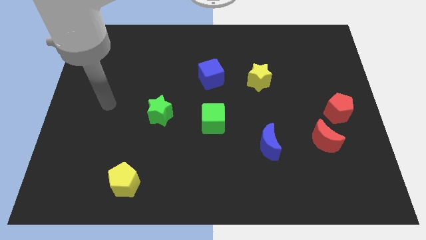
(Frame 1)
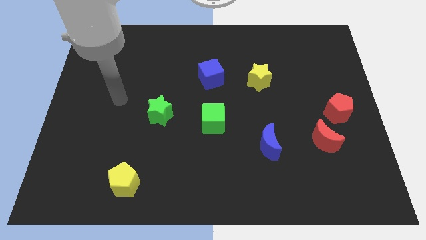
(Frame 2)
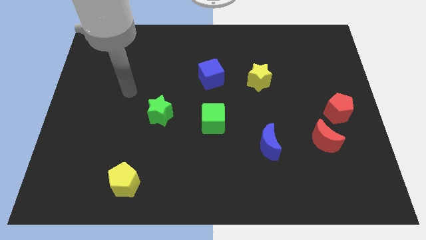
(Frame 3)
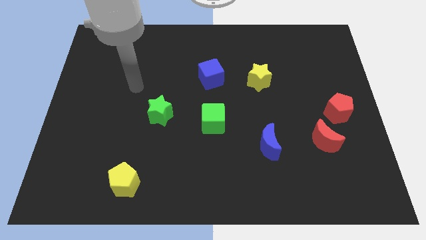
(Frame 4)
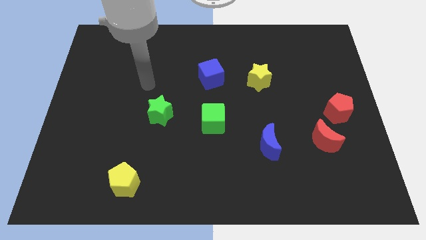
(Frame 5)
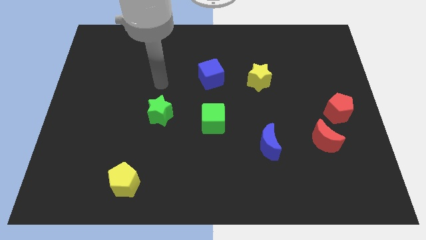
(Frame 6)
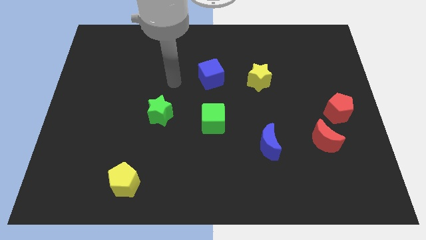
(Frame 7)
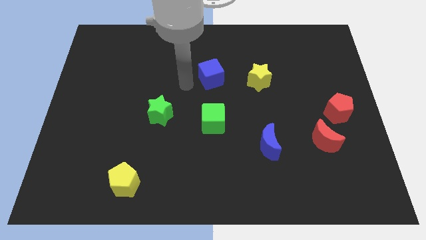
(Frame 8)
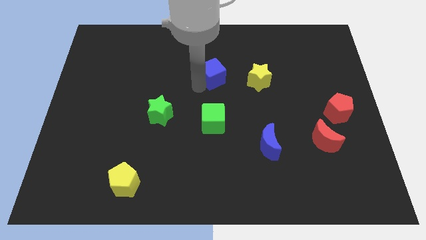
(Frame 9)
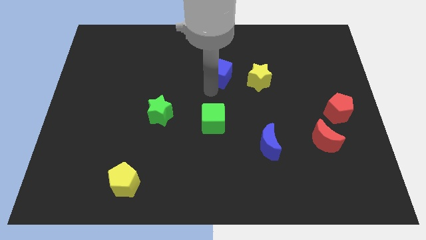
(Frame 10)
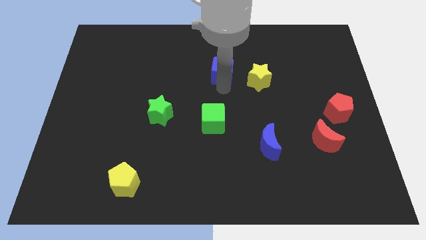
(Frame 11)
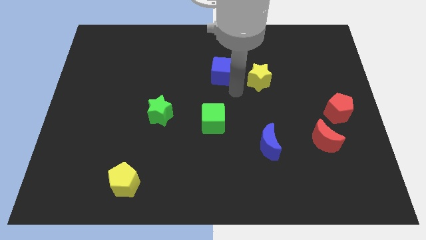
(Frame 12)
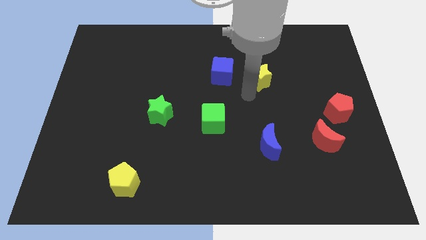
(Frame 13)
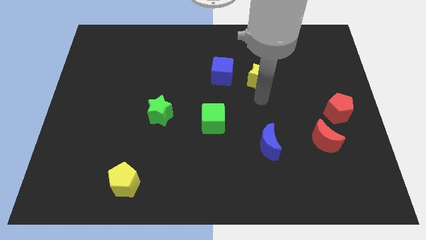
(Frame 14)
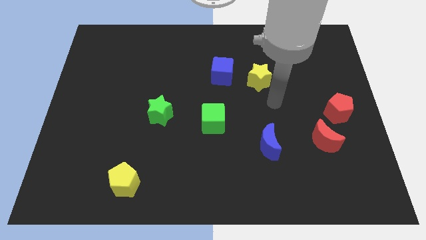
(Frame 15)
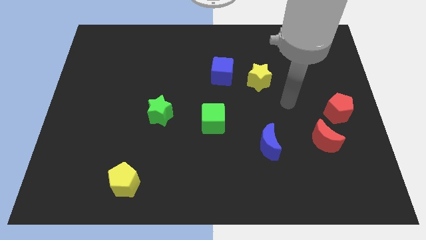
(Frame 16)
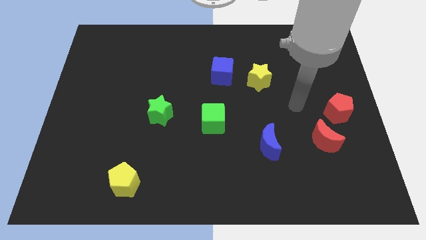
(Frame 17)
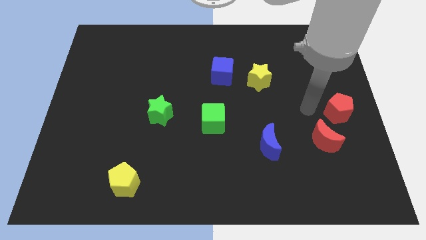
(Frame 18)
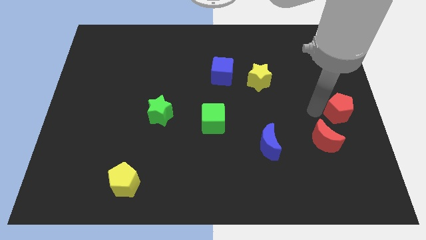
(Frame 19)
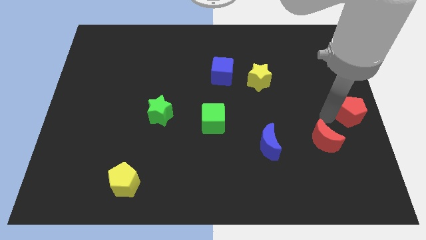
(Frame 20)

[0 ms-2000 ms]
pull the red moon apart from the red pentagon

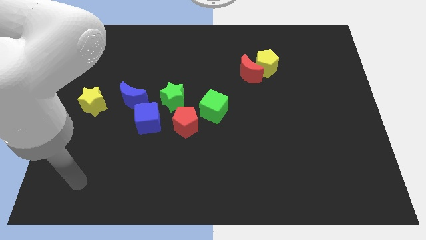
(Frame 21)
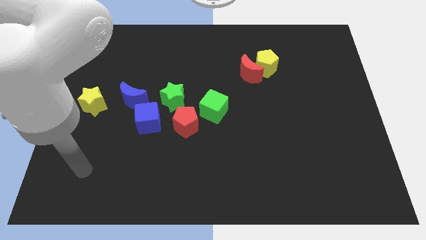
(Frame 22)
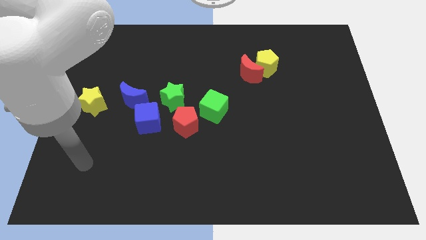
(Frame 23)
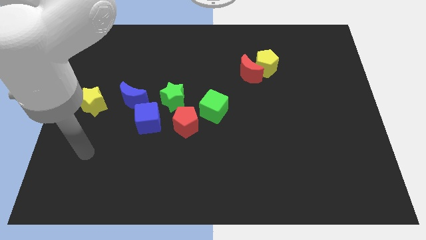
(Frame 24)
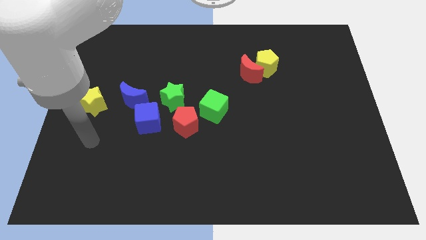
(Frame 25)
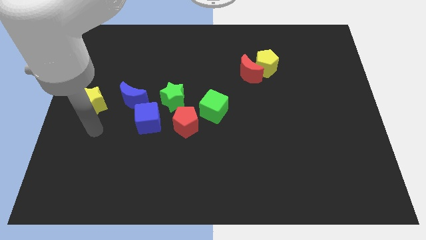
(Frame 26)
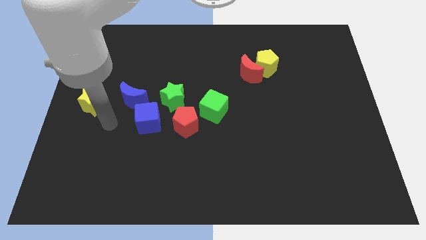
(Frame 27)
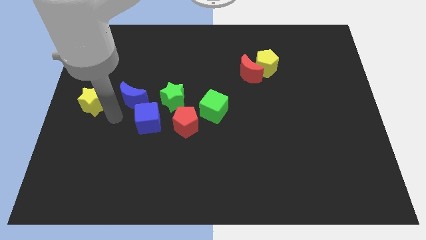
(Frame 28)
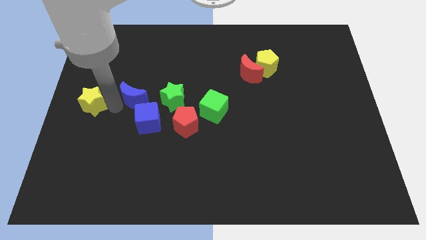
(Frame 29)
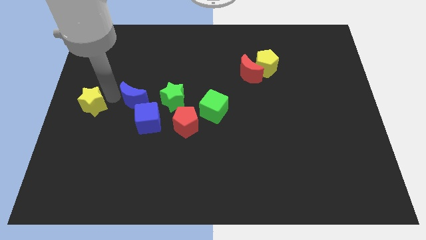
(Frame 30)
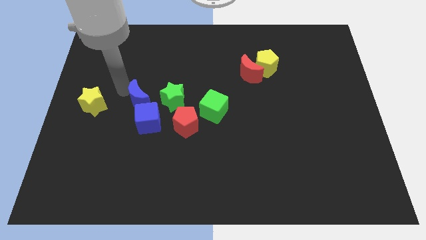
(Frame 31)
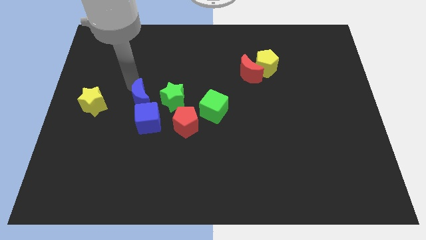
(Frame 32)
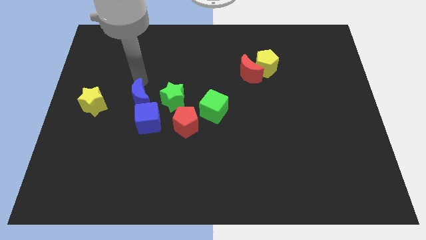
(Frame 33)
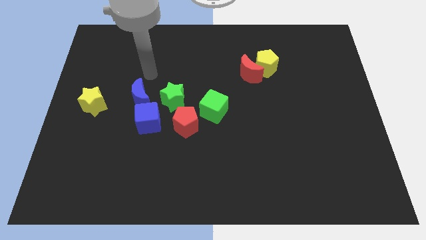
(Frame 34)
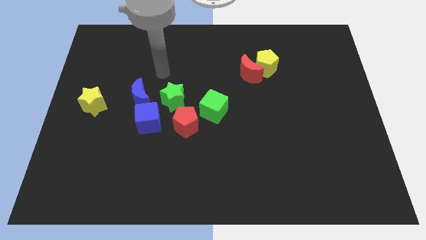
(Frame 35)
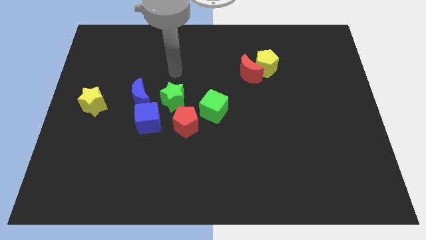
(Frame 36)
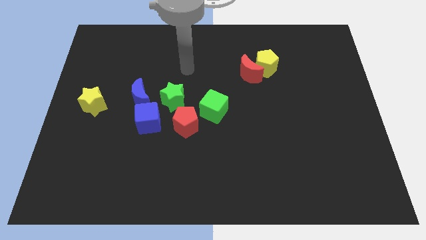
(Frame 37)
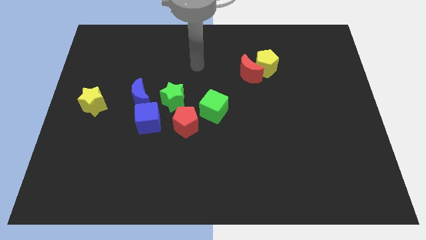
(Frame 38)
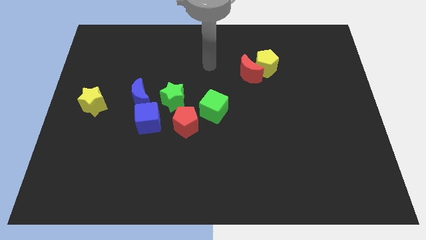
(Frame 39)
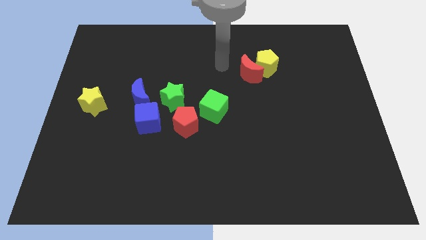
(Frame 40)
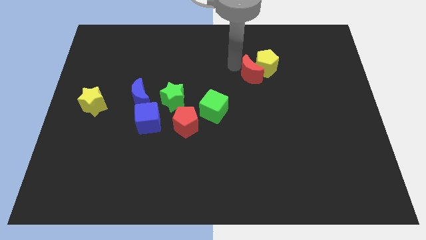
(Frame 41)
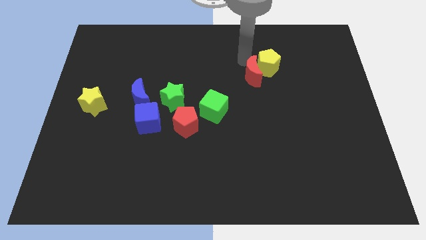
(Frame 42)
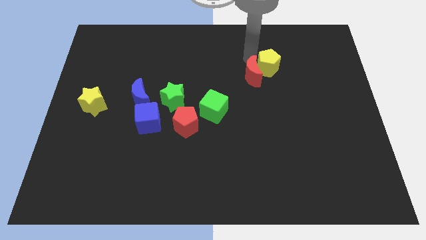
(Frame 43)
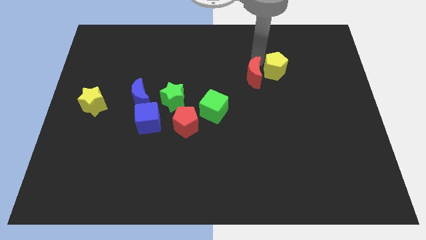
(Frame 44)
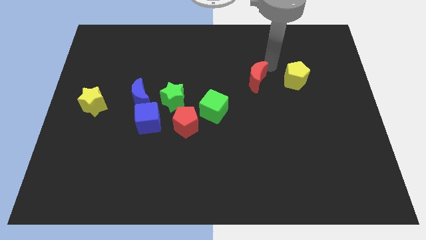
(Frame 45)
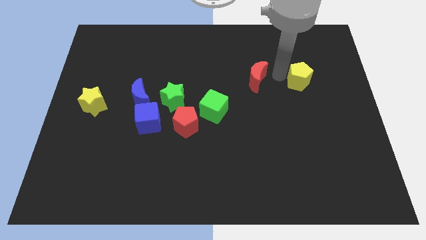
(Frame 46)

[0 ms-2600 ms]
move the red moon away from the yellow pentagon

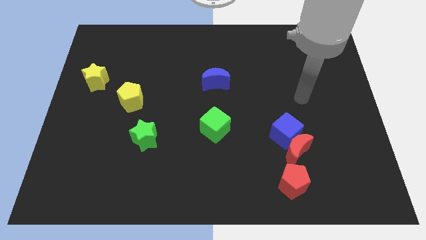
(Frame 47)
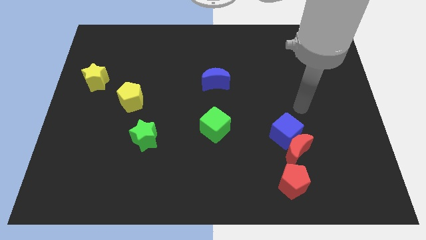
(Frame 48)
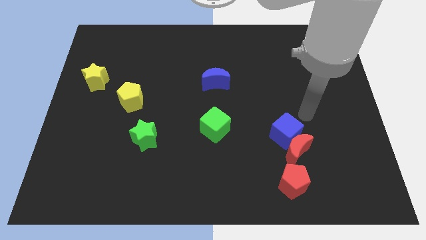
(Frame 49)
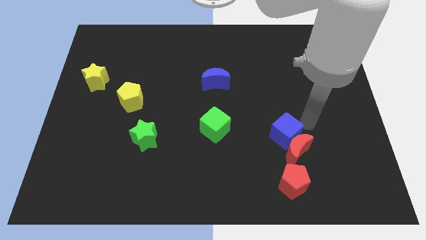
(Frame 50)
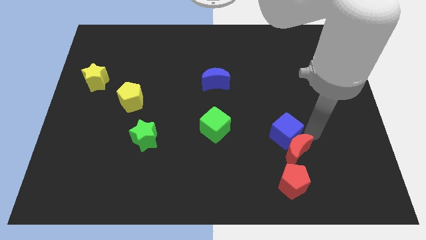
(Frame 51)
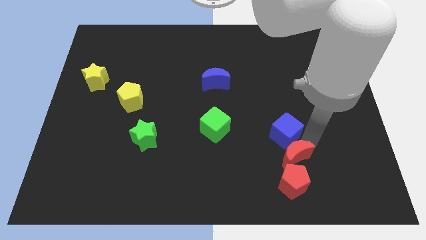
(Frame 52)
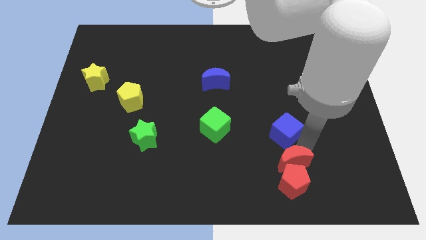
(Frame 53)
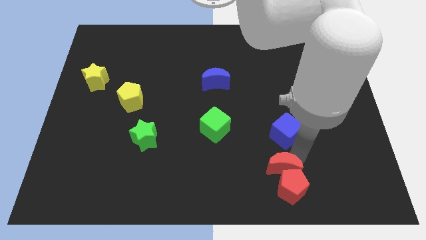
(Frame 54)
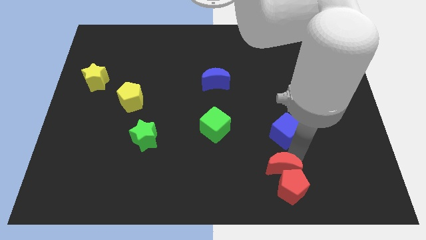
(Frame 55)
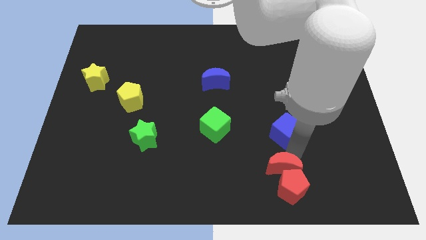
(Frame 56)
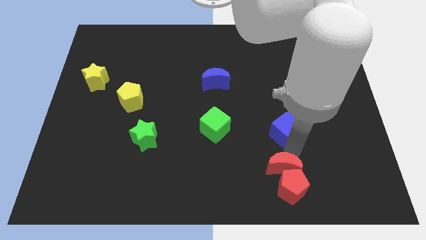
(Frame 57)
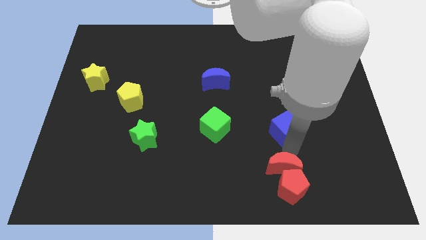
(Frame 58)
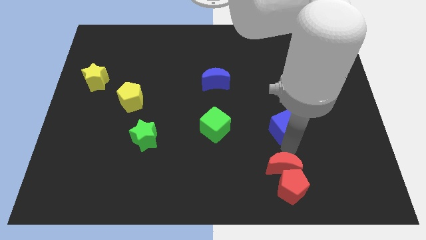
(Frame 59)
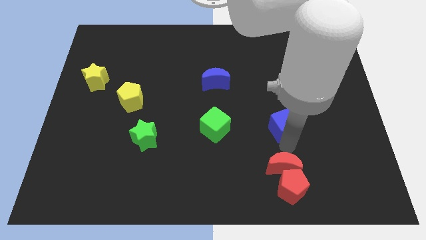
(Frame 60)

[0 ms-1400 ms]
separate the blue cube from the red moon

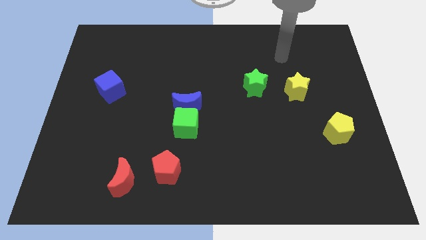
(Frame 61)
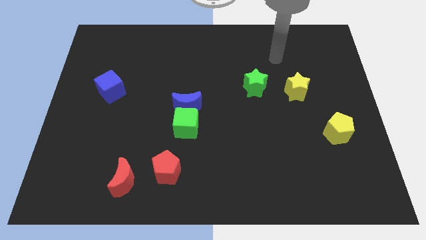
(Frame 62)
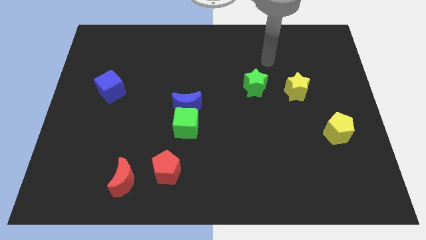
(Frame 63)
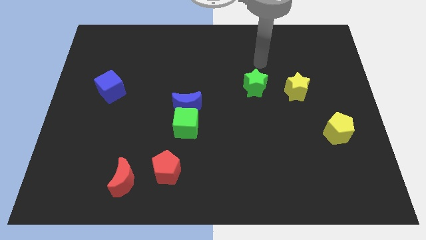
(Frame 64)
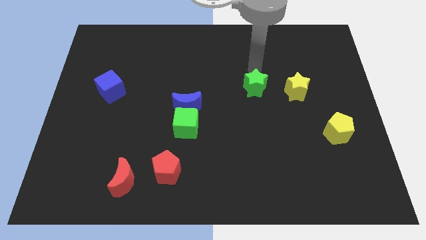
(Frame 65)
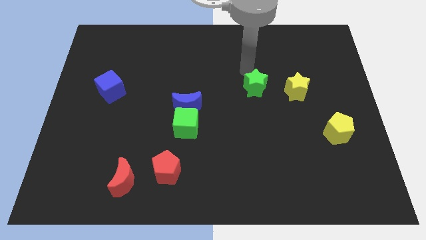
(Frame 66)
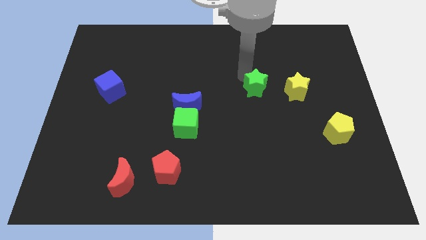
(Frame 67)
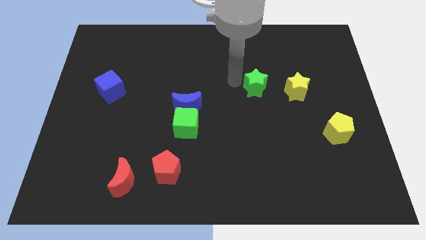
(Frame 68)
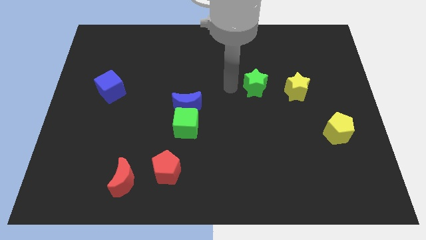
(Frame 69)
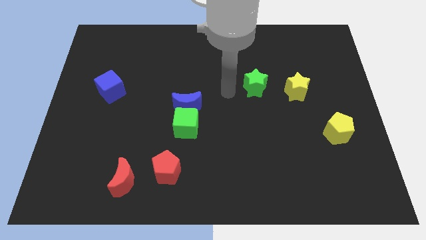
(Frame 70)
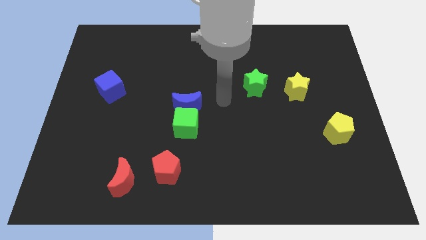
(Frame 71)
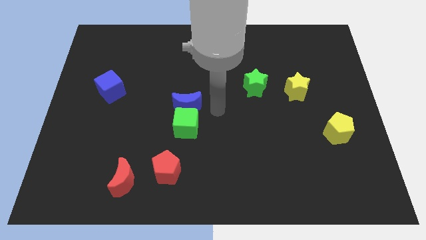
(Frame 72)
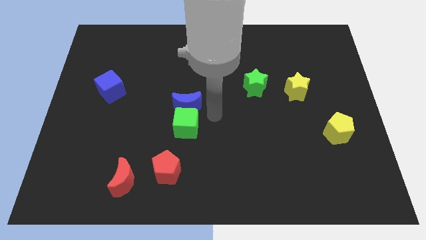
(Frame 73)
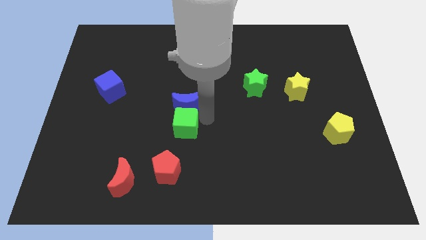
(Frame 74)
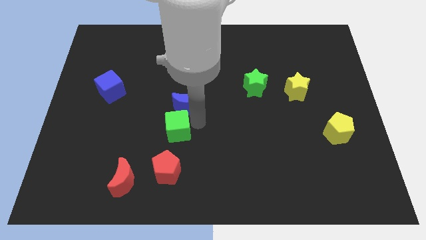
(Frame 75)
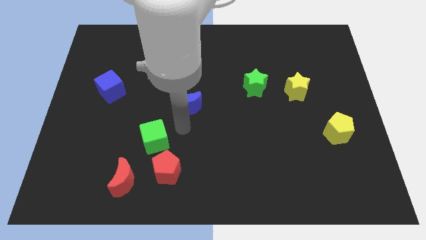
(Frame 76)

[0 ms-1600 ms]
pull the blue moon apart from the green cube

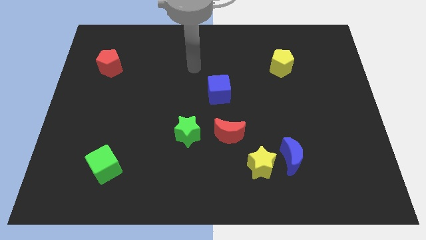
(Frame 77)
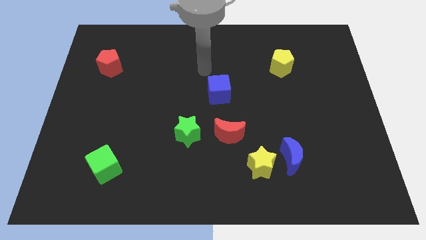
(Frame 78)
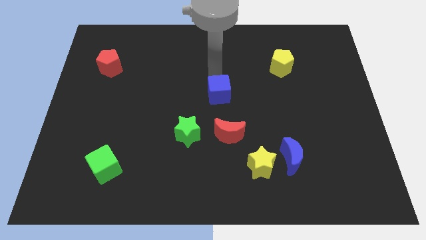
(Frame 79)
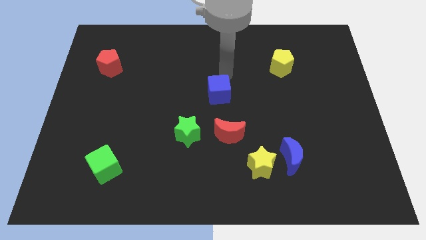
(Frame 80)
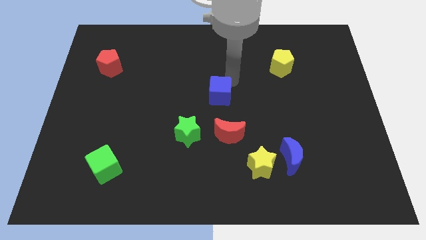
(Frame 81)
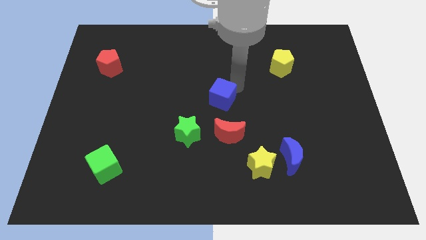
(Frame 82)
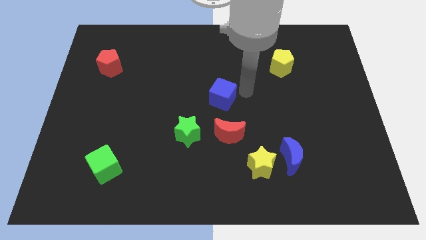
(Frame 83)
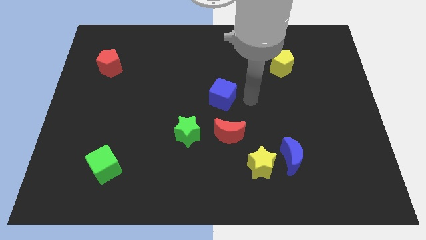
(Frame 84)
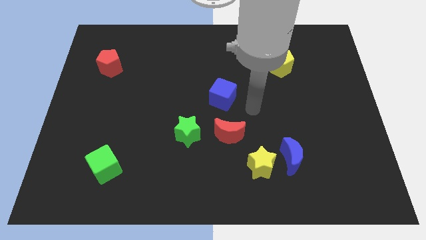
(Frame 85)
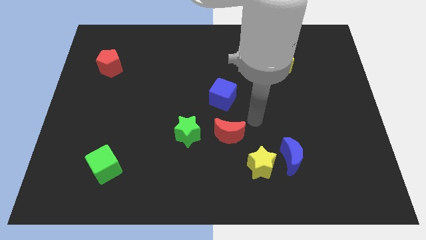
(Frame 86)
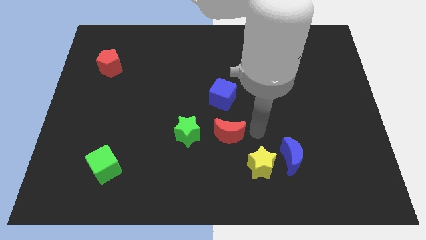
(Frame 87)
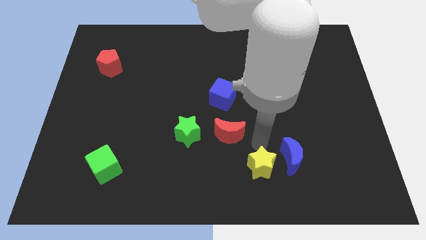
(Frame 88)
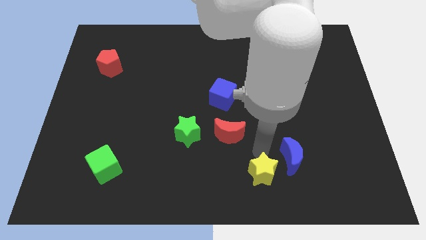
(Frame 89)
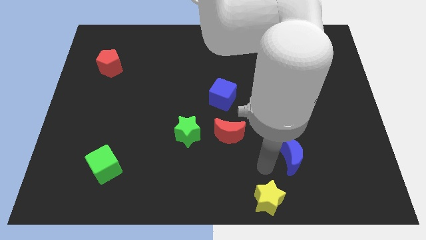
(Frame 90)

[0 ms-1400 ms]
pull the blue moon apart from the yellow star

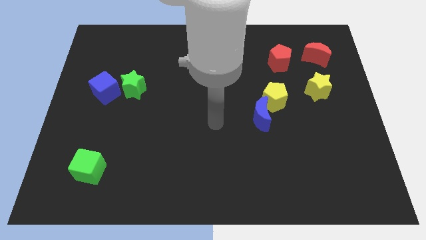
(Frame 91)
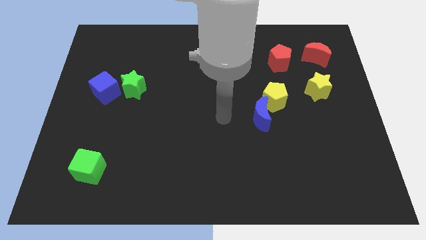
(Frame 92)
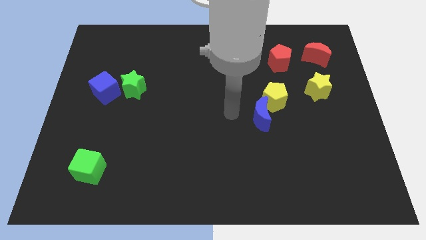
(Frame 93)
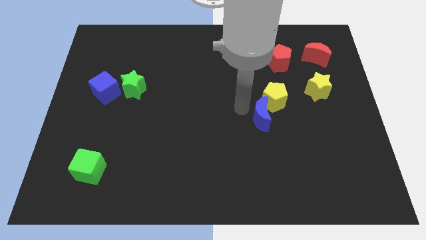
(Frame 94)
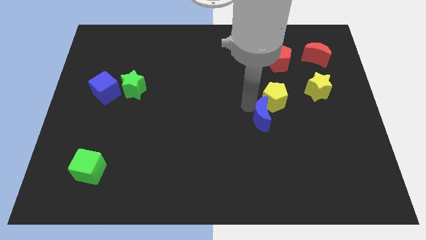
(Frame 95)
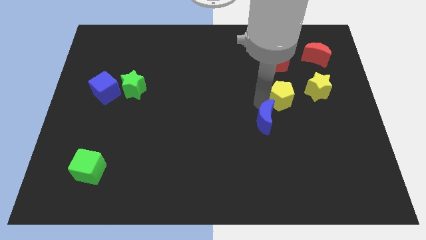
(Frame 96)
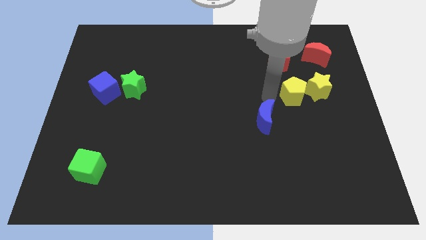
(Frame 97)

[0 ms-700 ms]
pull the blue moon apart from the yellow pentagon
